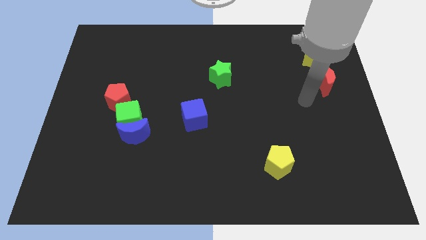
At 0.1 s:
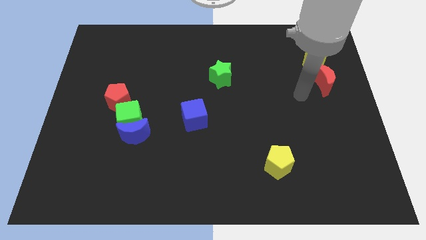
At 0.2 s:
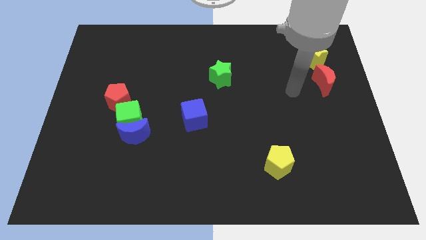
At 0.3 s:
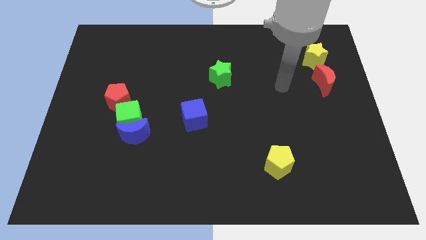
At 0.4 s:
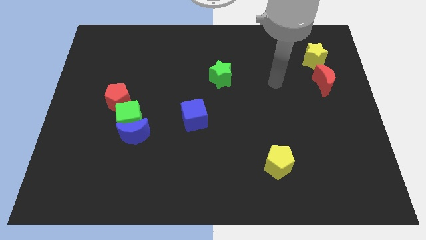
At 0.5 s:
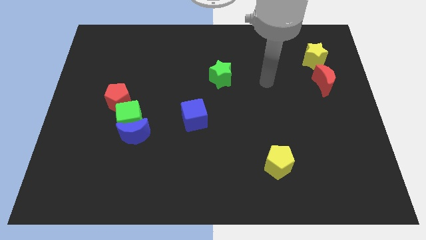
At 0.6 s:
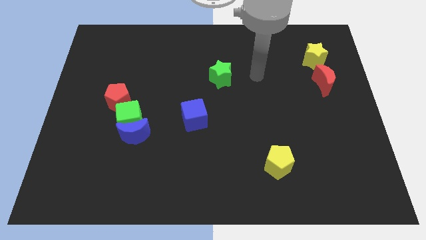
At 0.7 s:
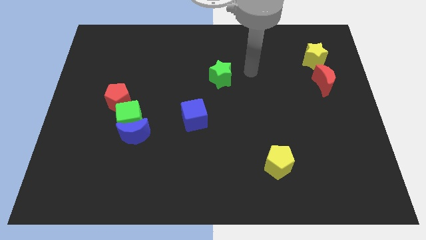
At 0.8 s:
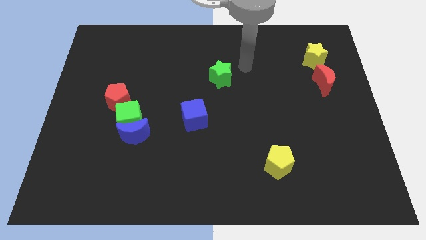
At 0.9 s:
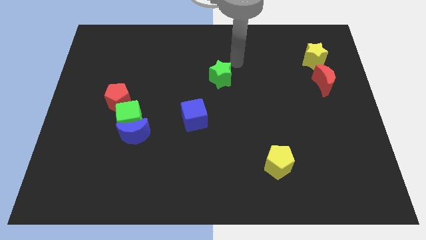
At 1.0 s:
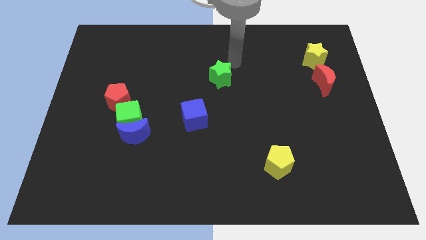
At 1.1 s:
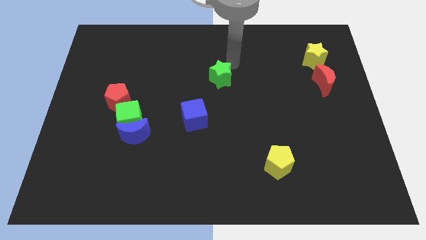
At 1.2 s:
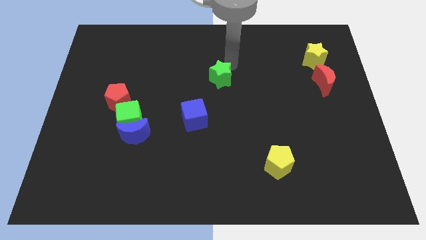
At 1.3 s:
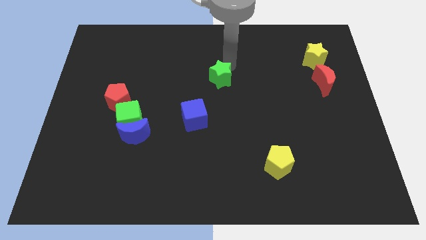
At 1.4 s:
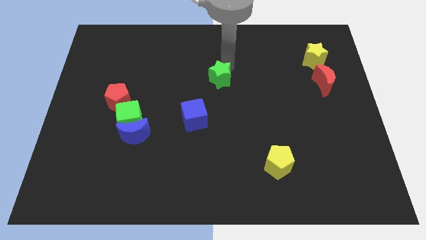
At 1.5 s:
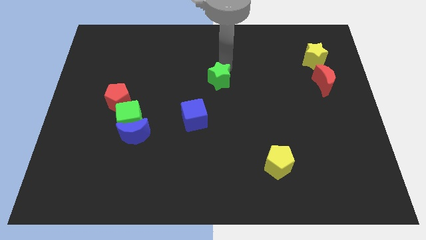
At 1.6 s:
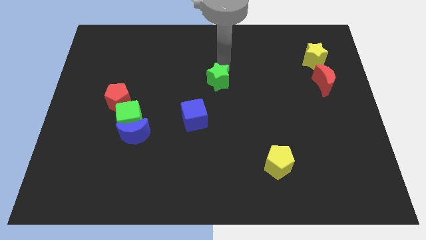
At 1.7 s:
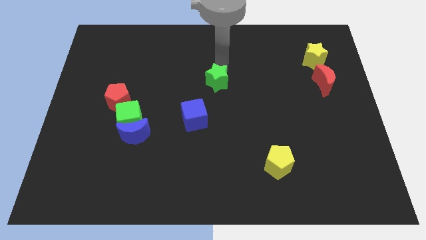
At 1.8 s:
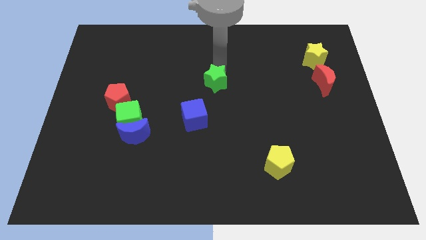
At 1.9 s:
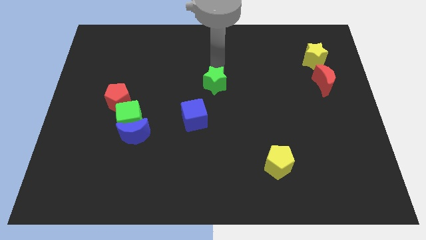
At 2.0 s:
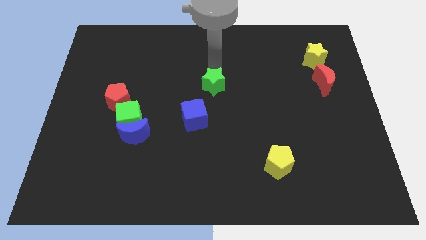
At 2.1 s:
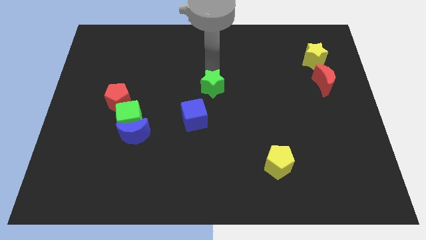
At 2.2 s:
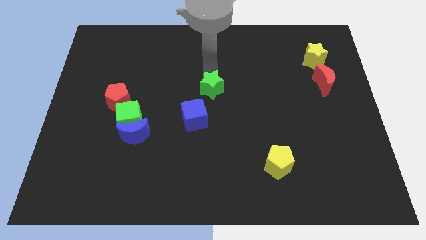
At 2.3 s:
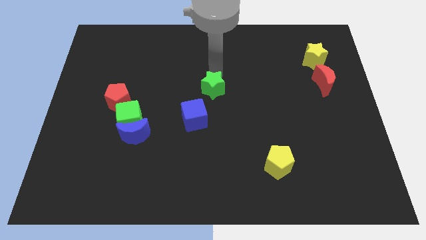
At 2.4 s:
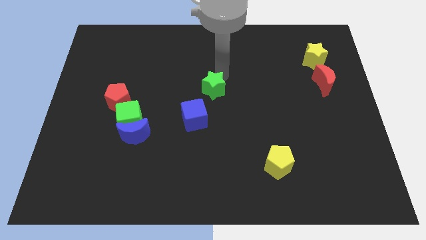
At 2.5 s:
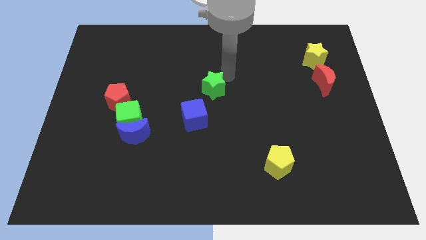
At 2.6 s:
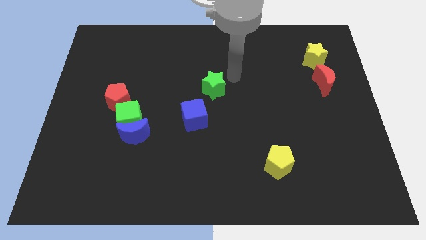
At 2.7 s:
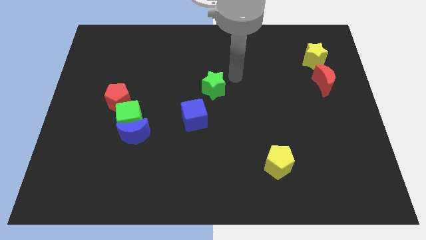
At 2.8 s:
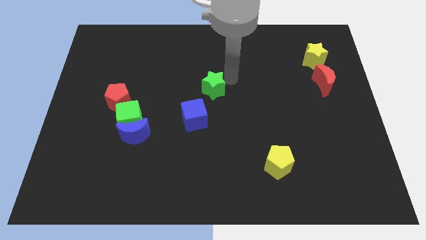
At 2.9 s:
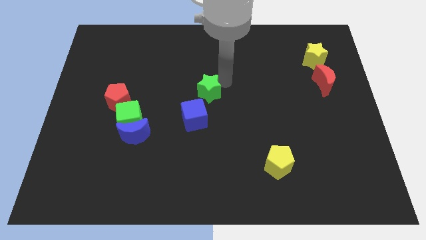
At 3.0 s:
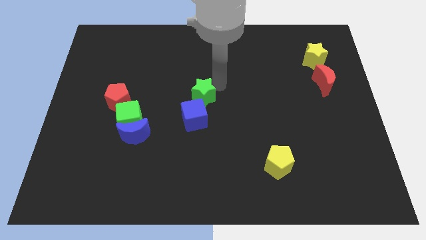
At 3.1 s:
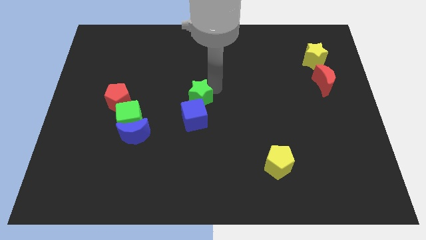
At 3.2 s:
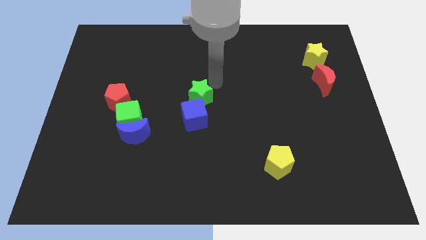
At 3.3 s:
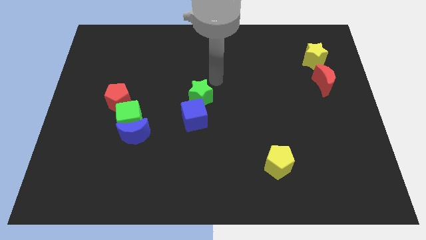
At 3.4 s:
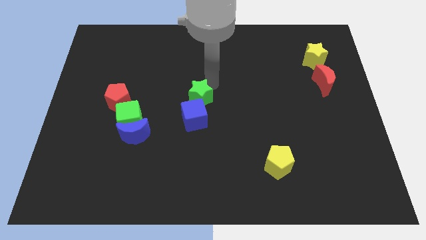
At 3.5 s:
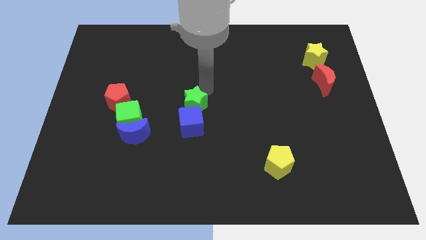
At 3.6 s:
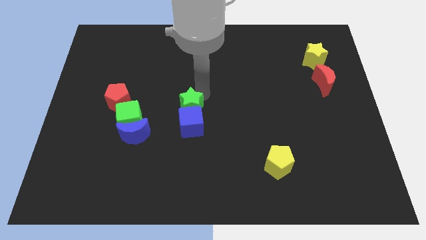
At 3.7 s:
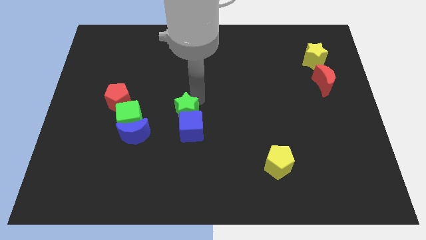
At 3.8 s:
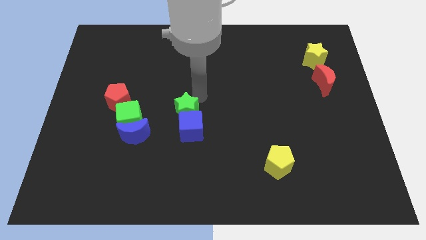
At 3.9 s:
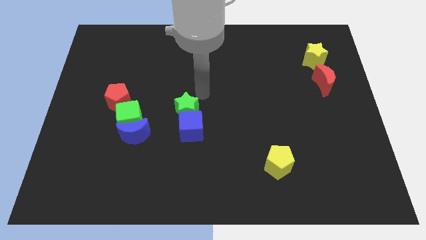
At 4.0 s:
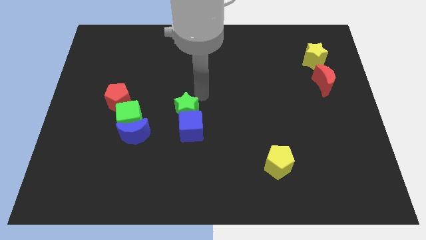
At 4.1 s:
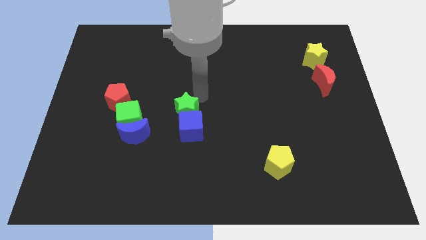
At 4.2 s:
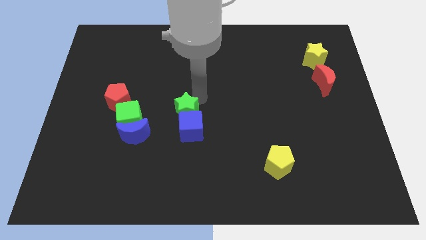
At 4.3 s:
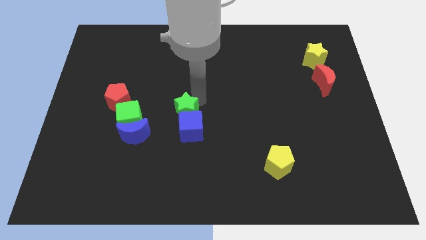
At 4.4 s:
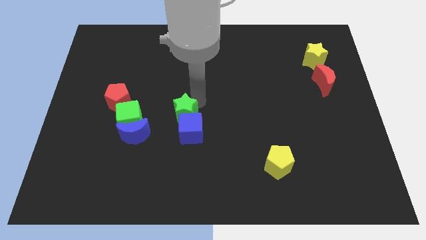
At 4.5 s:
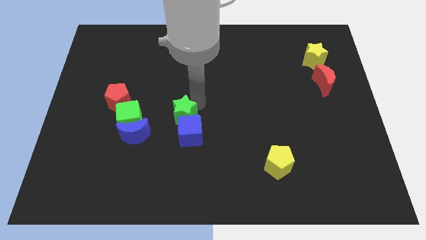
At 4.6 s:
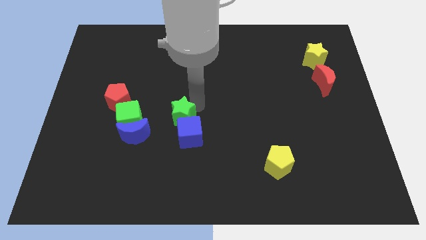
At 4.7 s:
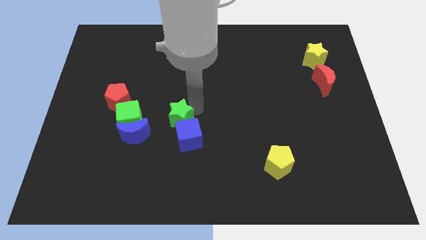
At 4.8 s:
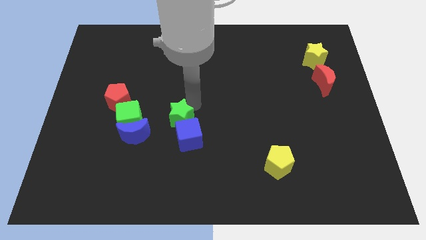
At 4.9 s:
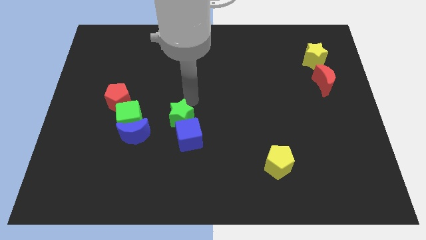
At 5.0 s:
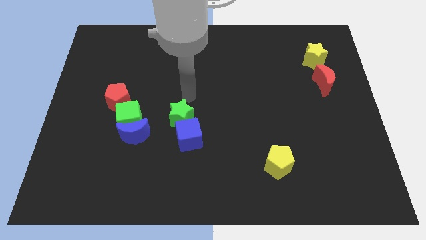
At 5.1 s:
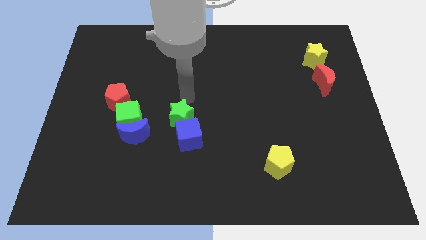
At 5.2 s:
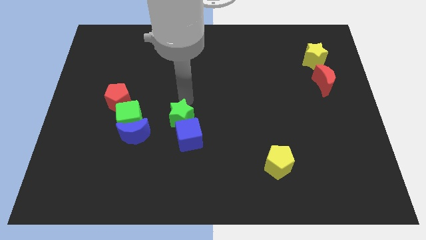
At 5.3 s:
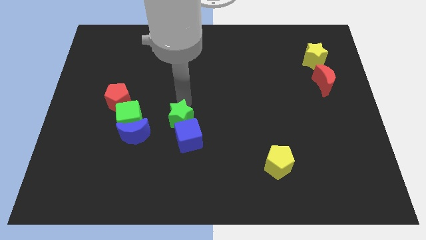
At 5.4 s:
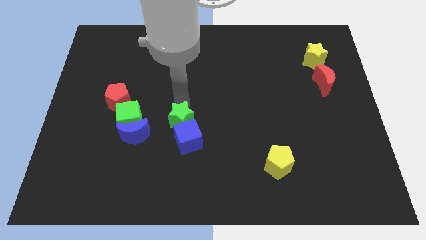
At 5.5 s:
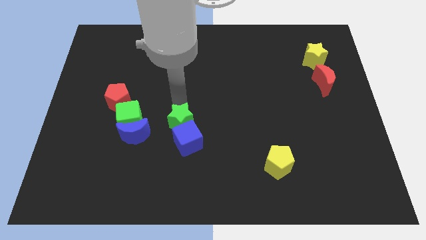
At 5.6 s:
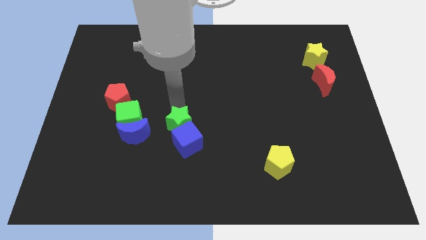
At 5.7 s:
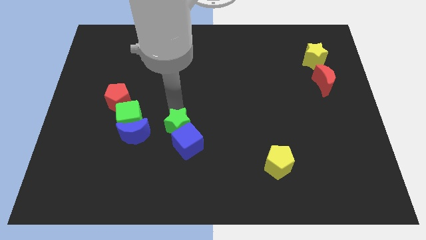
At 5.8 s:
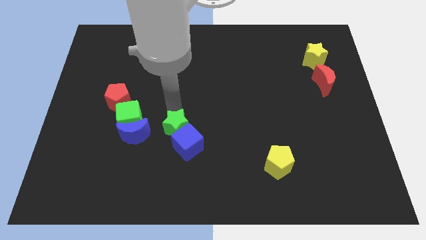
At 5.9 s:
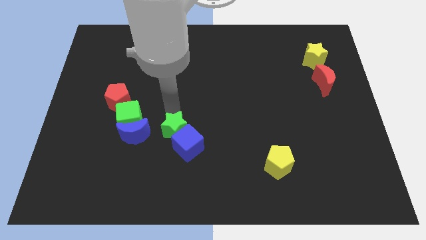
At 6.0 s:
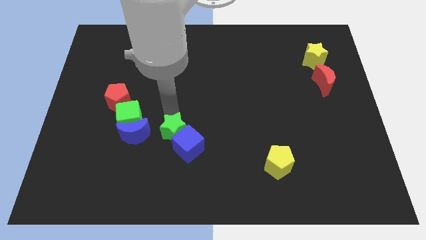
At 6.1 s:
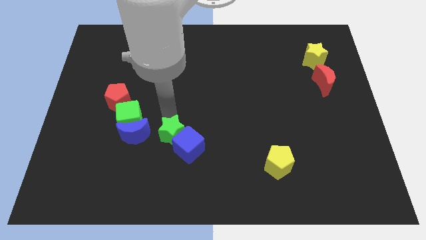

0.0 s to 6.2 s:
move the green star to the bottom right of the green cube
